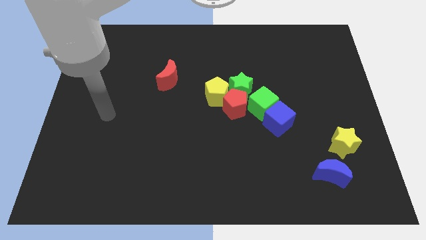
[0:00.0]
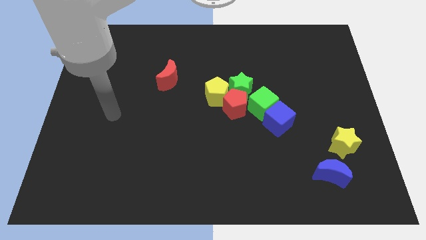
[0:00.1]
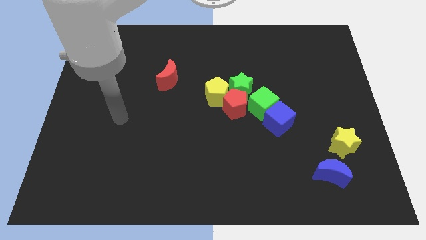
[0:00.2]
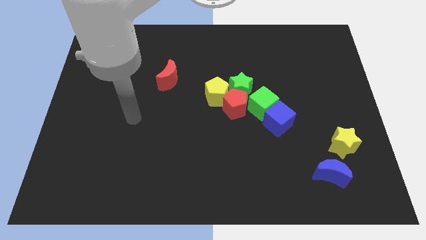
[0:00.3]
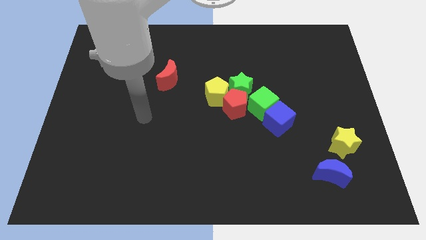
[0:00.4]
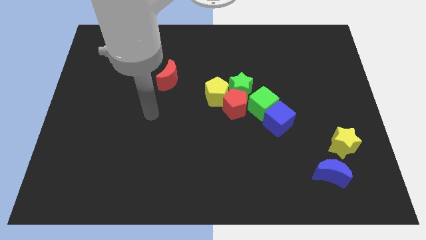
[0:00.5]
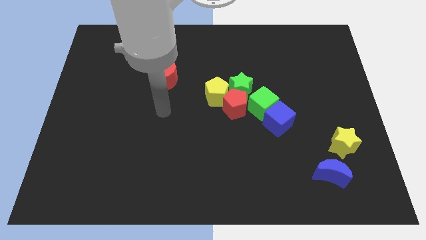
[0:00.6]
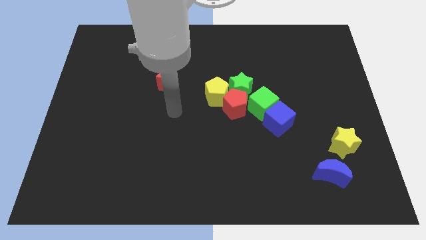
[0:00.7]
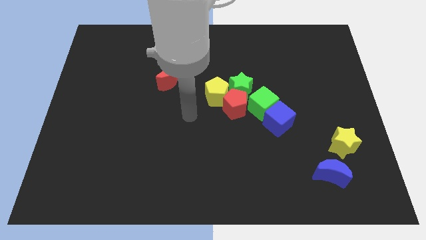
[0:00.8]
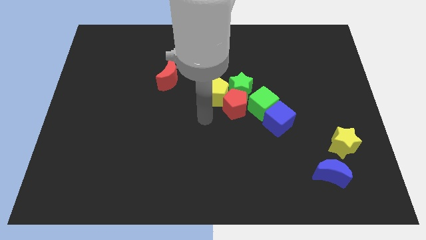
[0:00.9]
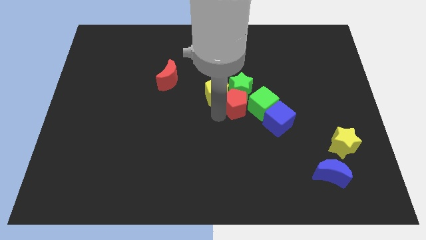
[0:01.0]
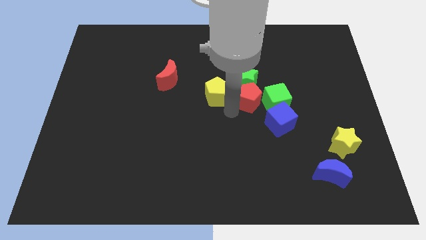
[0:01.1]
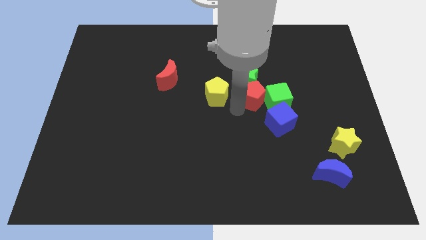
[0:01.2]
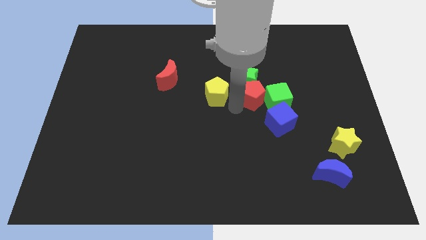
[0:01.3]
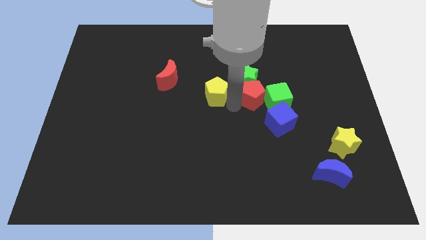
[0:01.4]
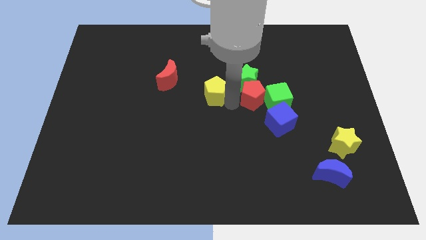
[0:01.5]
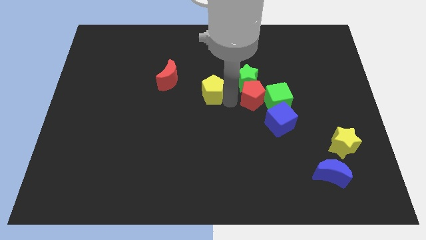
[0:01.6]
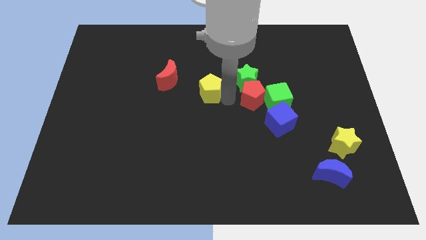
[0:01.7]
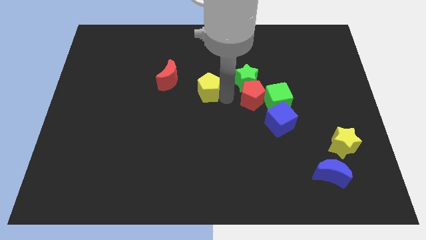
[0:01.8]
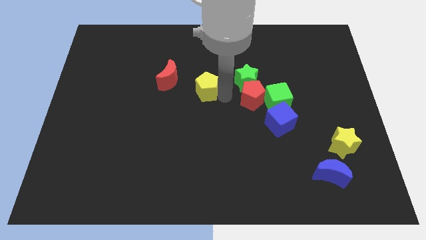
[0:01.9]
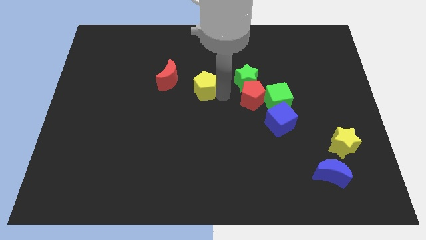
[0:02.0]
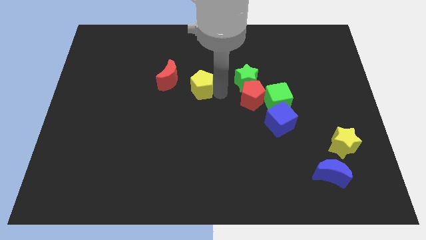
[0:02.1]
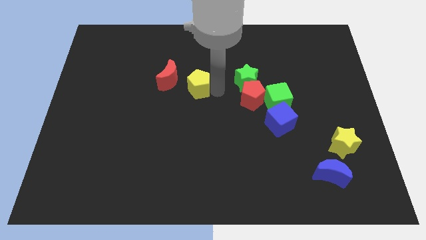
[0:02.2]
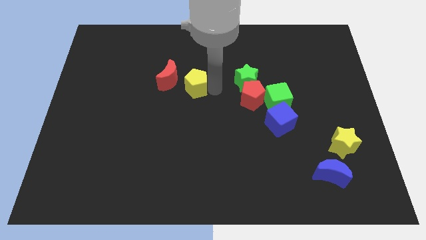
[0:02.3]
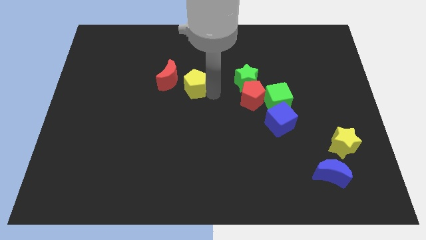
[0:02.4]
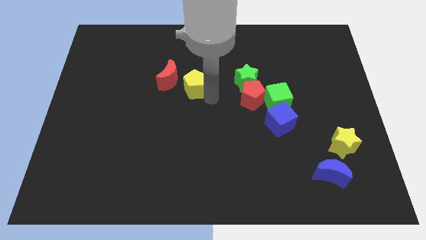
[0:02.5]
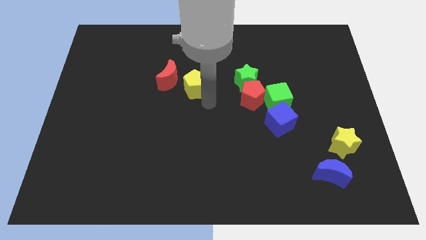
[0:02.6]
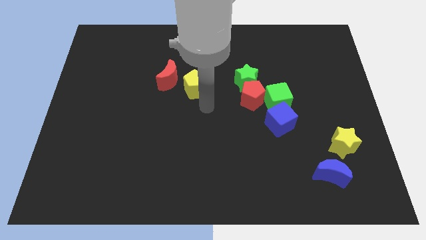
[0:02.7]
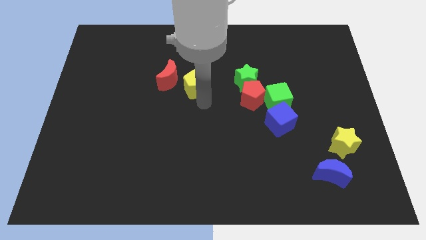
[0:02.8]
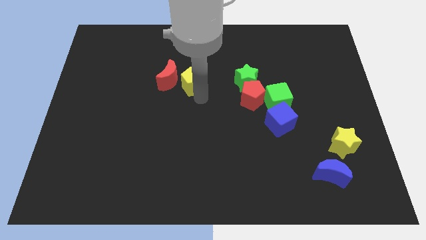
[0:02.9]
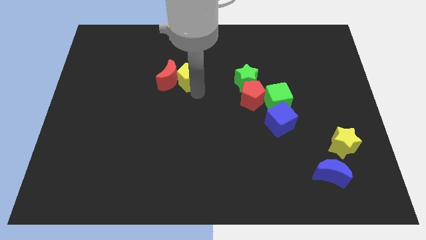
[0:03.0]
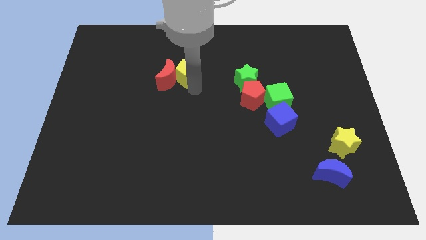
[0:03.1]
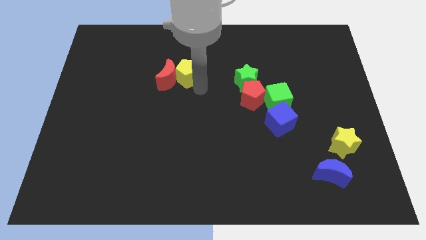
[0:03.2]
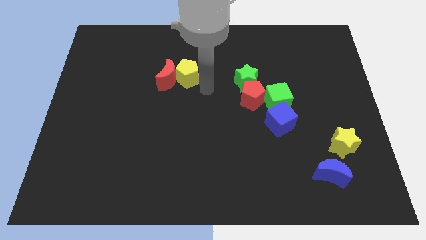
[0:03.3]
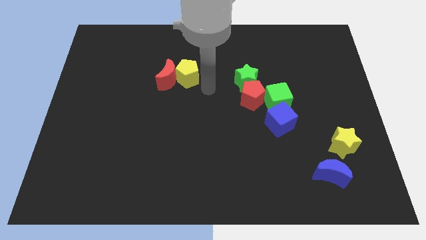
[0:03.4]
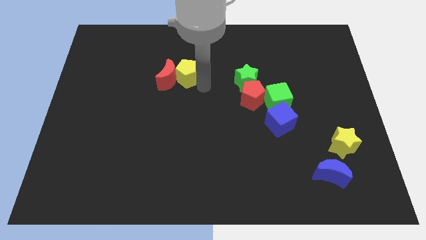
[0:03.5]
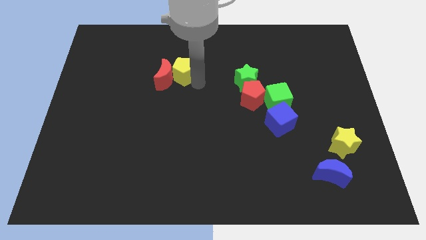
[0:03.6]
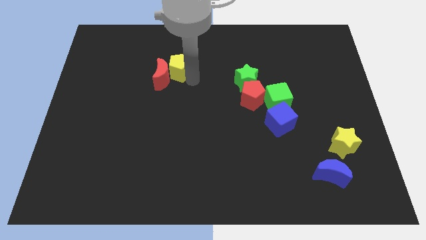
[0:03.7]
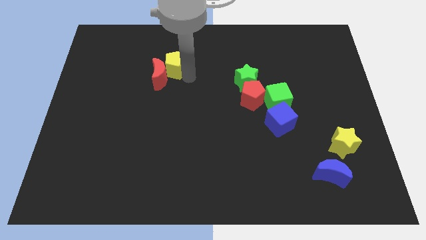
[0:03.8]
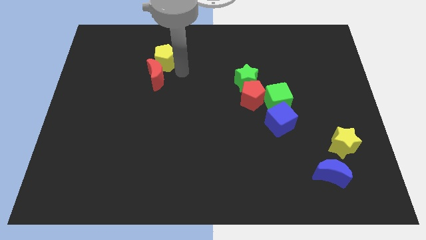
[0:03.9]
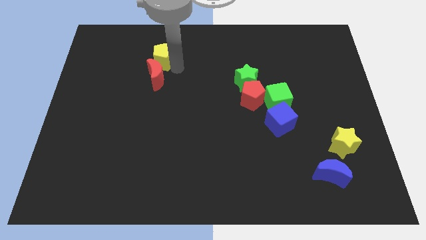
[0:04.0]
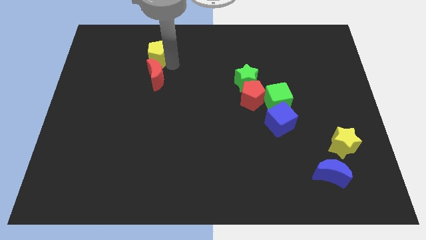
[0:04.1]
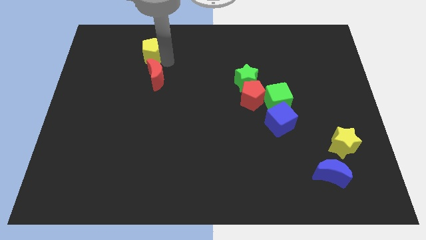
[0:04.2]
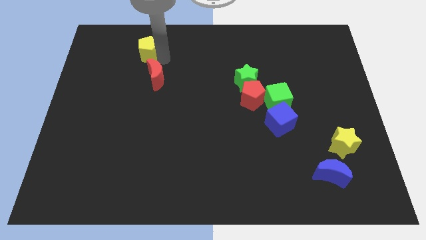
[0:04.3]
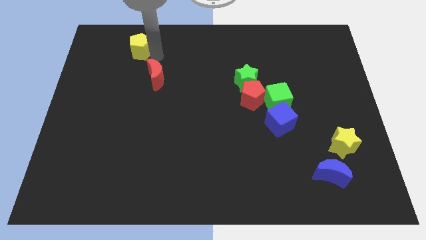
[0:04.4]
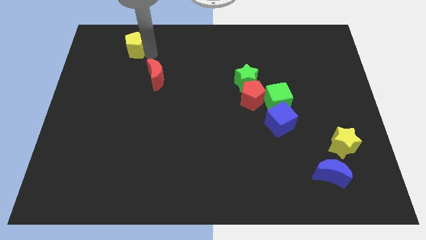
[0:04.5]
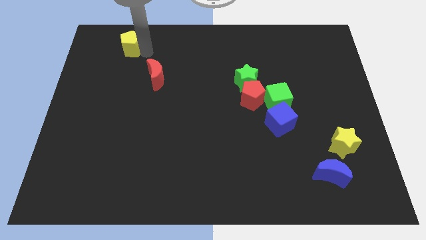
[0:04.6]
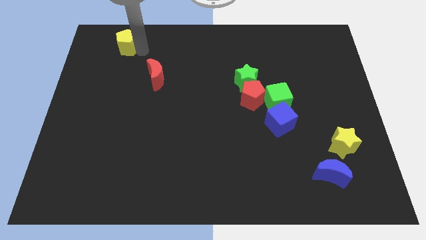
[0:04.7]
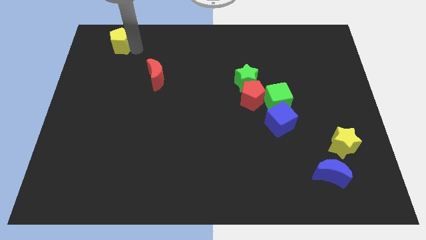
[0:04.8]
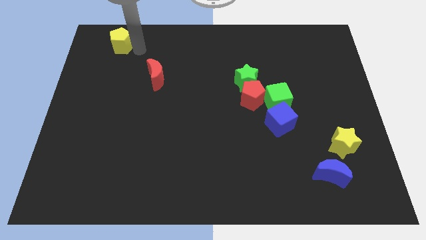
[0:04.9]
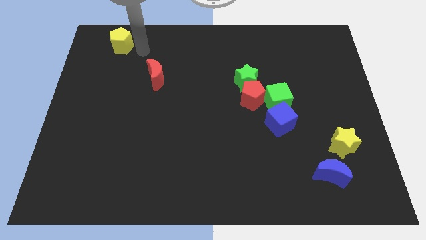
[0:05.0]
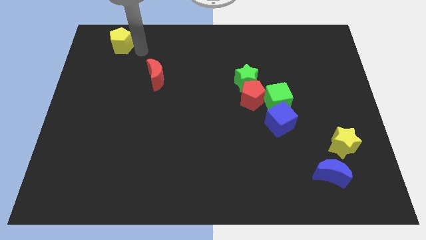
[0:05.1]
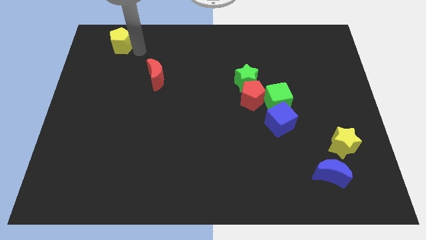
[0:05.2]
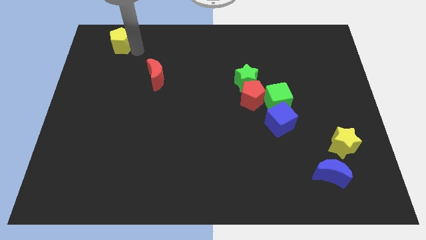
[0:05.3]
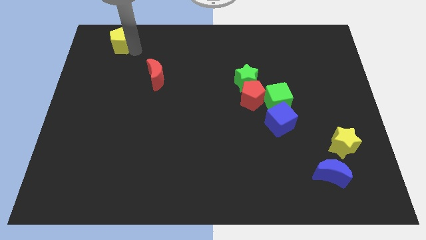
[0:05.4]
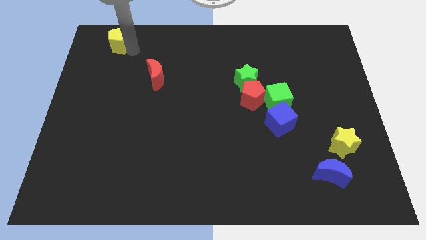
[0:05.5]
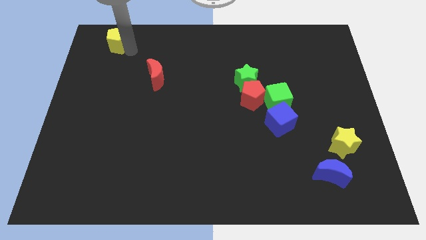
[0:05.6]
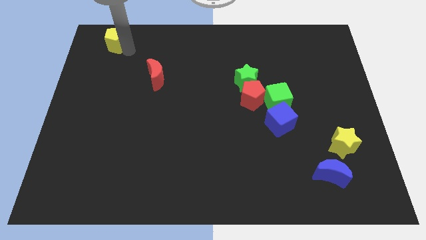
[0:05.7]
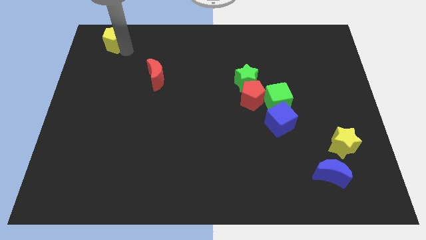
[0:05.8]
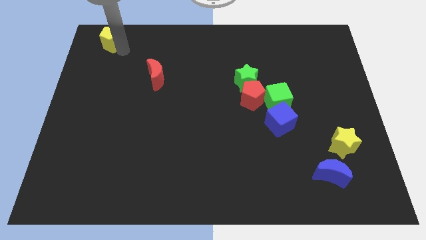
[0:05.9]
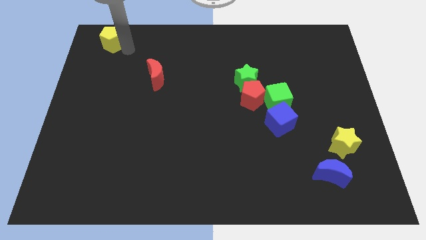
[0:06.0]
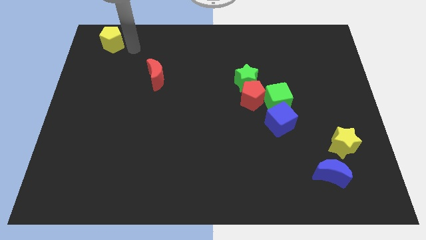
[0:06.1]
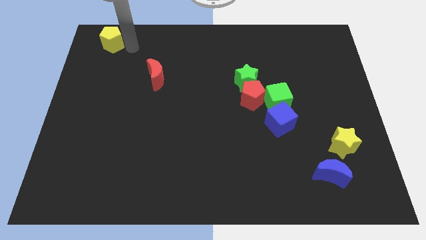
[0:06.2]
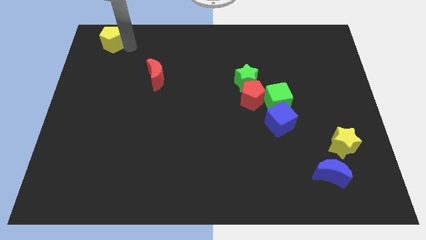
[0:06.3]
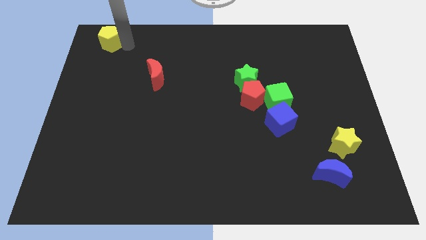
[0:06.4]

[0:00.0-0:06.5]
slide the yellow pentagon to the top left of the board

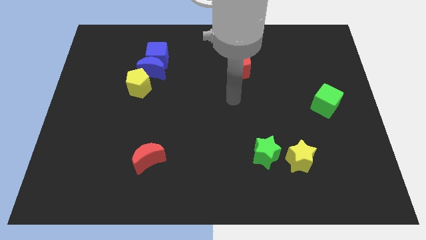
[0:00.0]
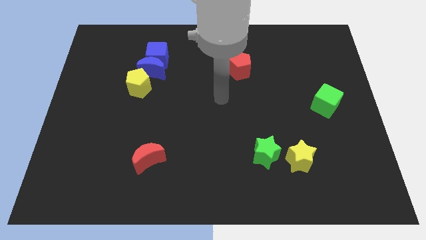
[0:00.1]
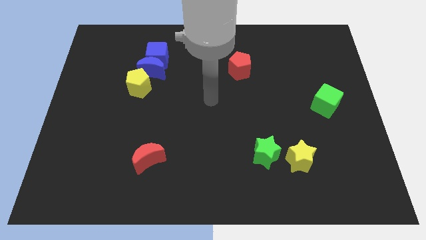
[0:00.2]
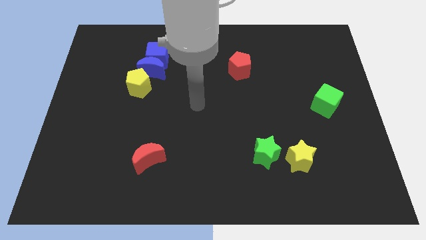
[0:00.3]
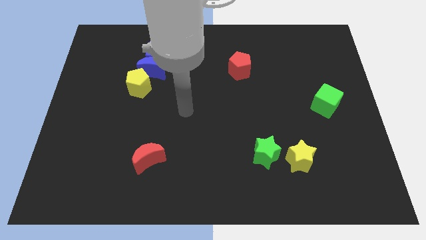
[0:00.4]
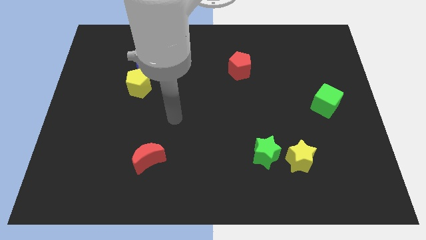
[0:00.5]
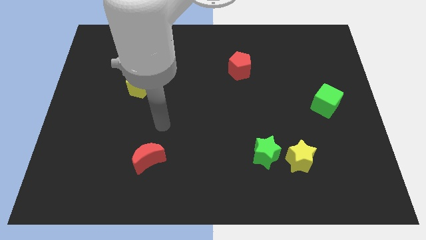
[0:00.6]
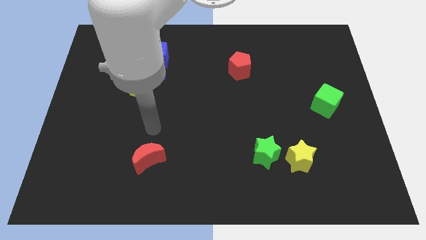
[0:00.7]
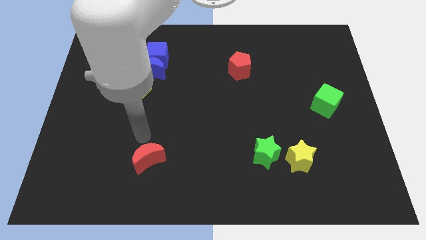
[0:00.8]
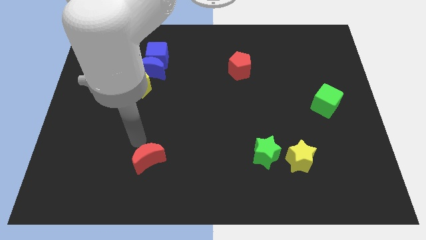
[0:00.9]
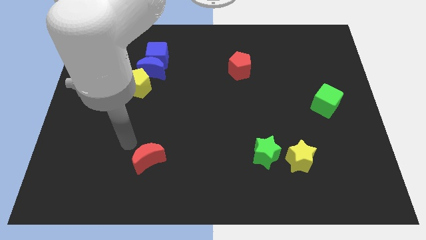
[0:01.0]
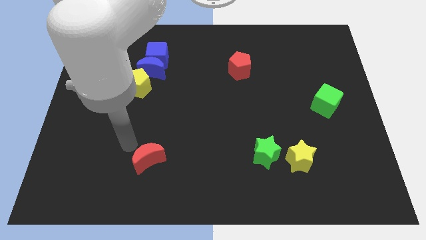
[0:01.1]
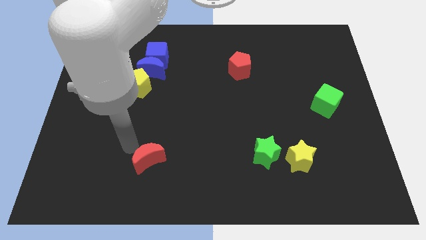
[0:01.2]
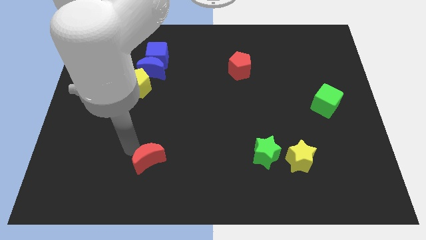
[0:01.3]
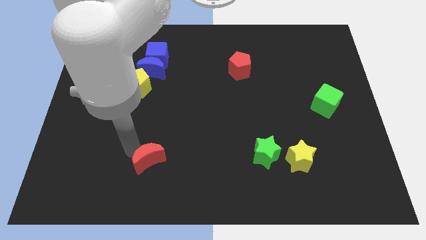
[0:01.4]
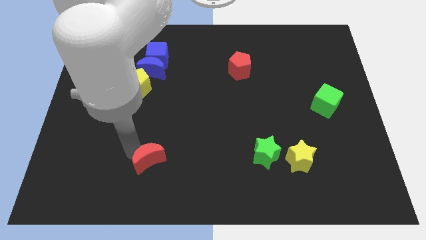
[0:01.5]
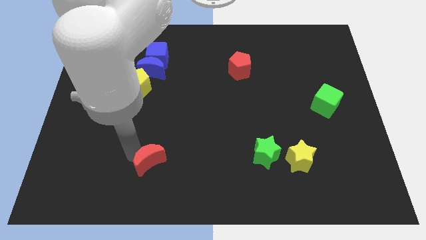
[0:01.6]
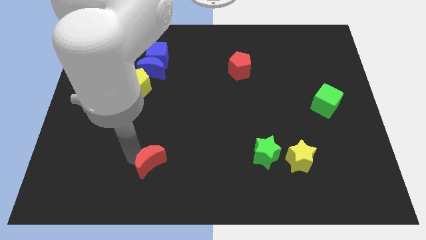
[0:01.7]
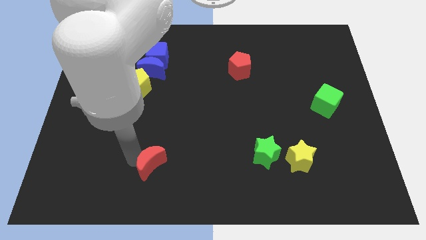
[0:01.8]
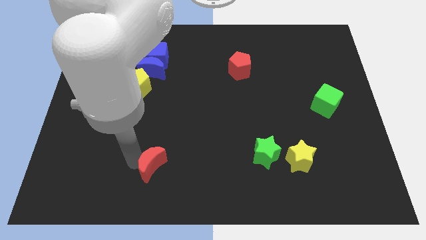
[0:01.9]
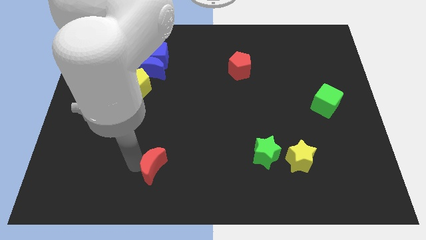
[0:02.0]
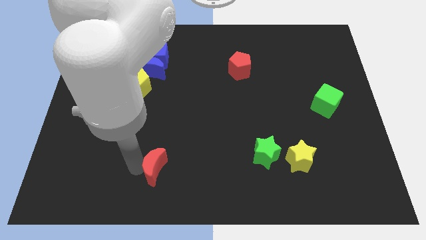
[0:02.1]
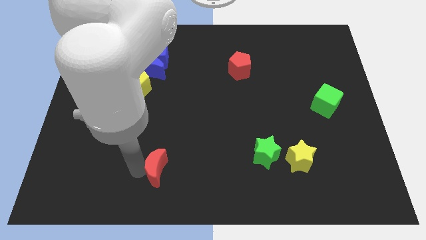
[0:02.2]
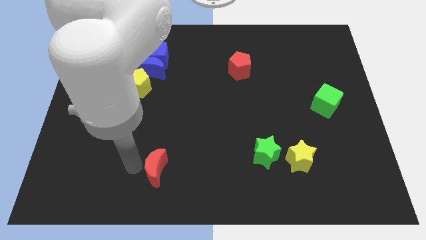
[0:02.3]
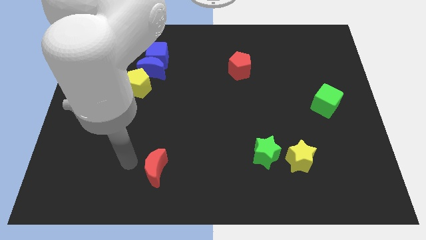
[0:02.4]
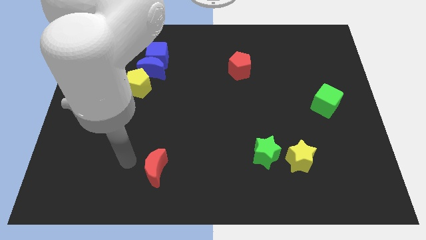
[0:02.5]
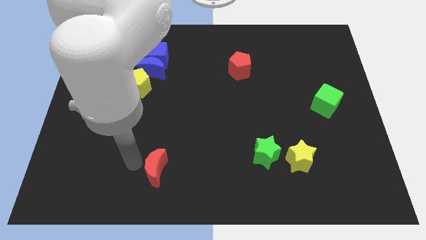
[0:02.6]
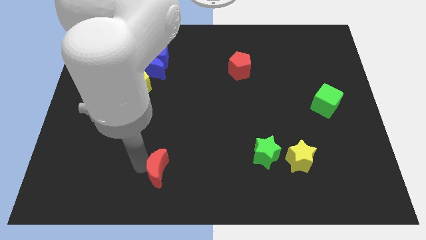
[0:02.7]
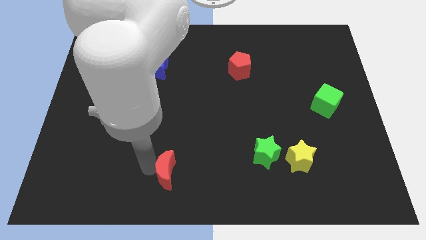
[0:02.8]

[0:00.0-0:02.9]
slide the red moon to the bottom
